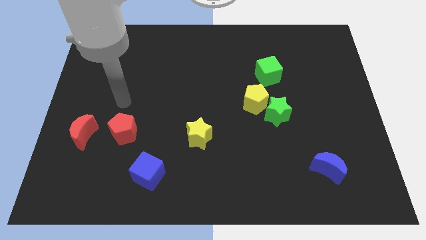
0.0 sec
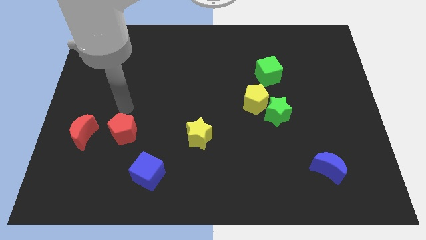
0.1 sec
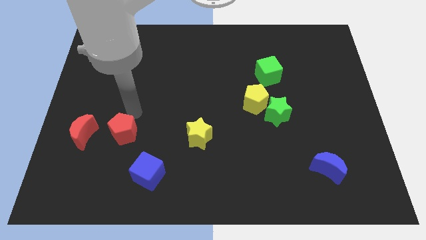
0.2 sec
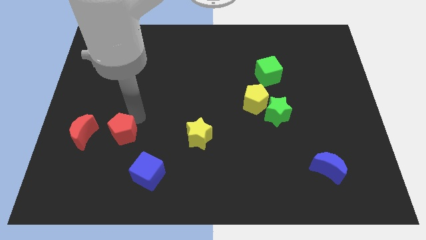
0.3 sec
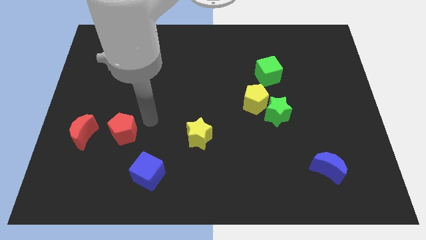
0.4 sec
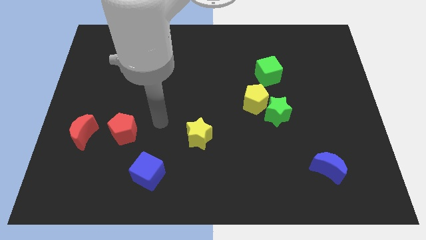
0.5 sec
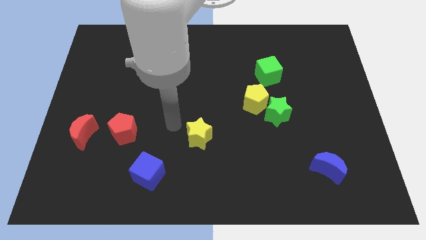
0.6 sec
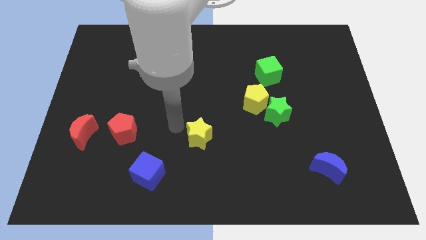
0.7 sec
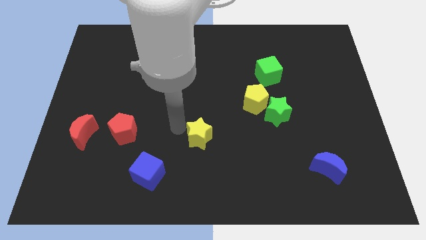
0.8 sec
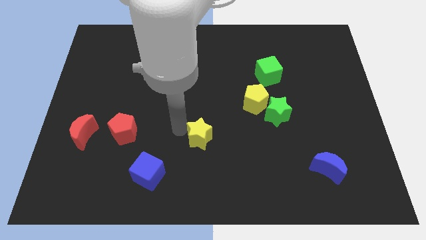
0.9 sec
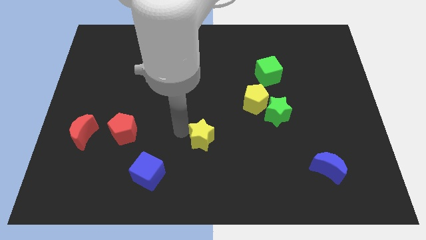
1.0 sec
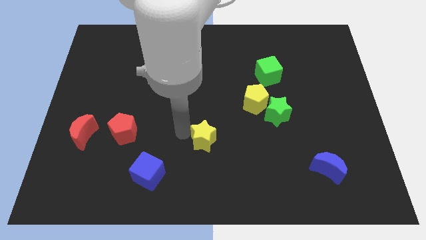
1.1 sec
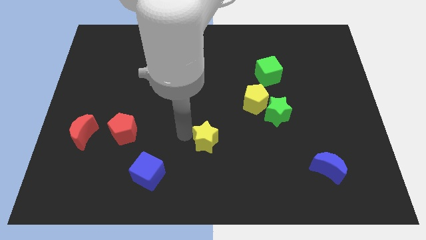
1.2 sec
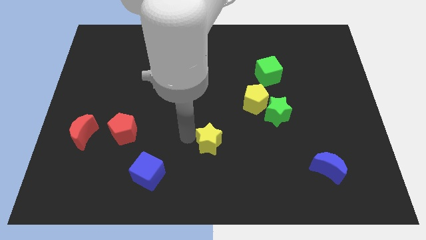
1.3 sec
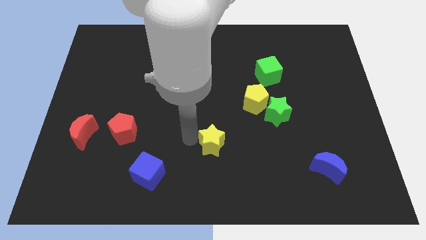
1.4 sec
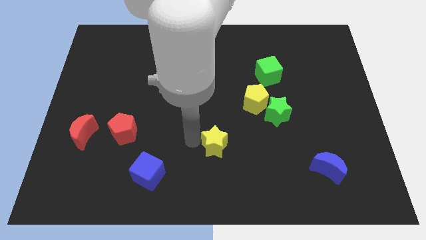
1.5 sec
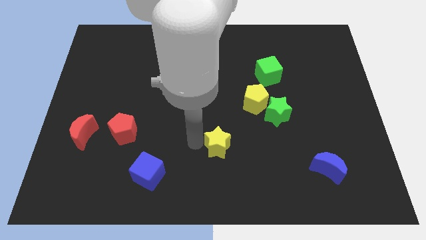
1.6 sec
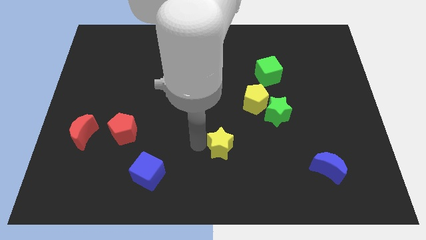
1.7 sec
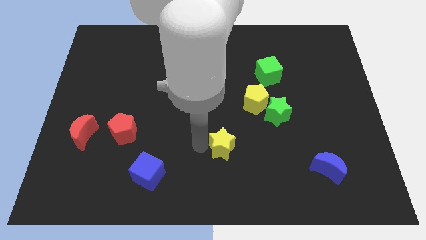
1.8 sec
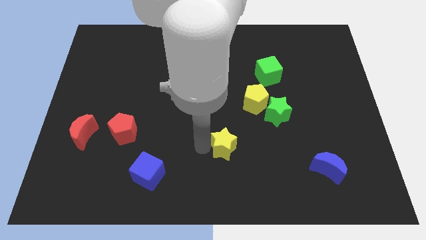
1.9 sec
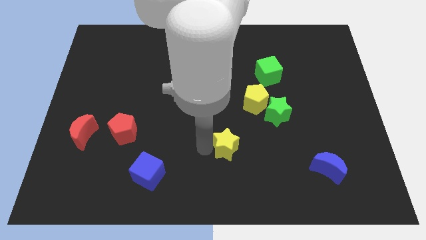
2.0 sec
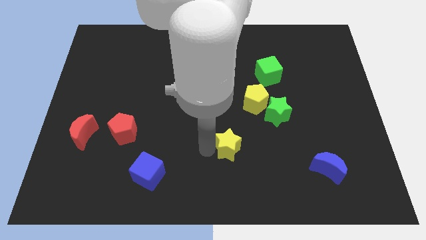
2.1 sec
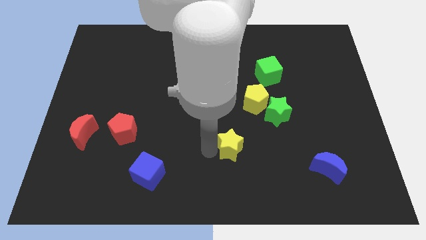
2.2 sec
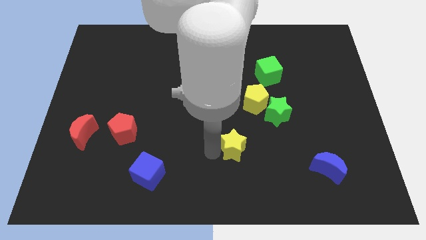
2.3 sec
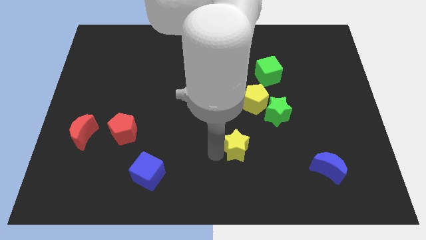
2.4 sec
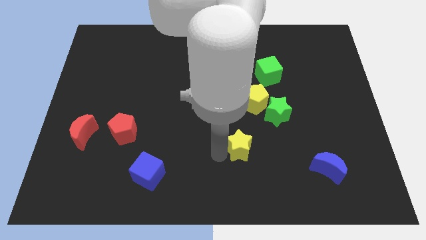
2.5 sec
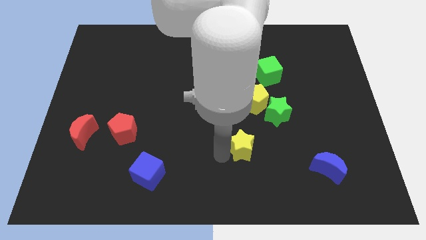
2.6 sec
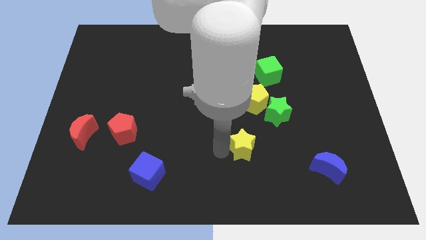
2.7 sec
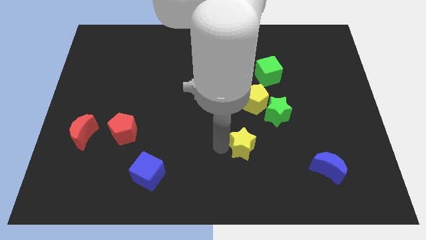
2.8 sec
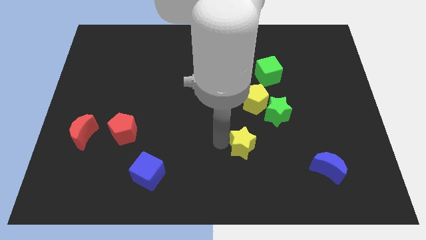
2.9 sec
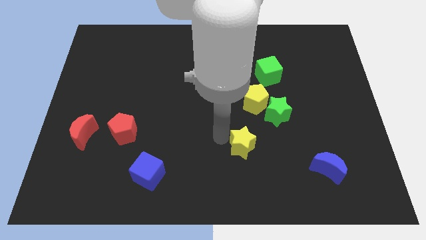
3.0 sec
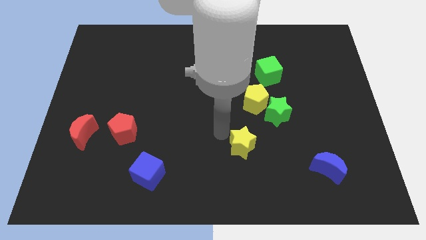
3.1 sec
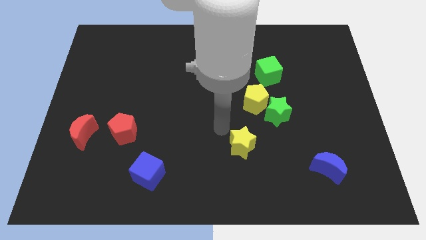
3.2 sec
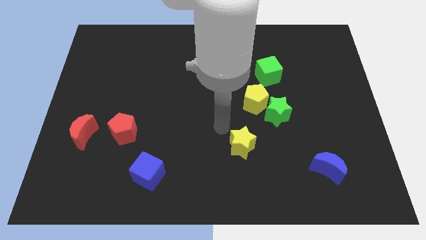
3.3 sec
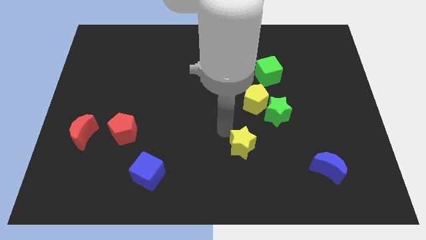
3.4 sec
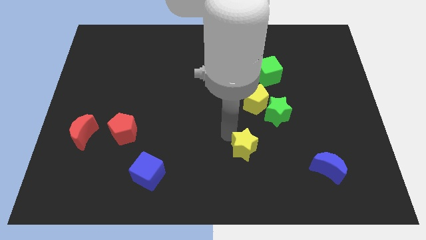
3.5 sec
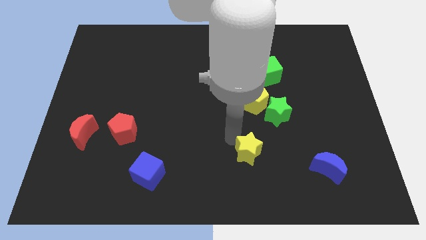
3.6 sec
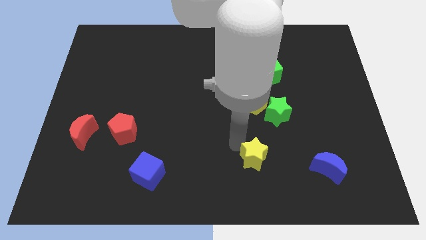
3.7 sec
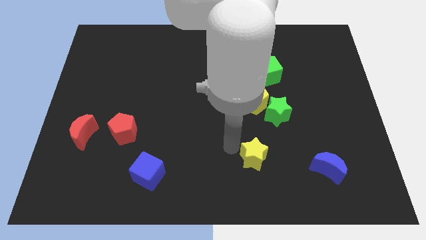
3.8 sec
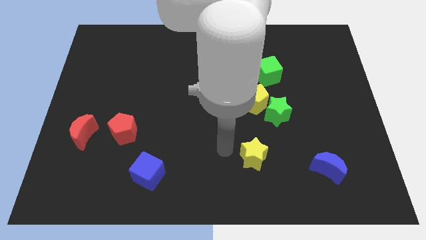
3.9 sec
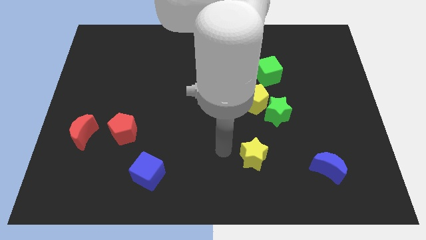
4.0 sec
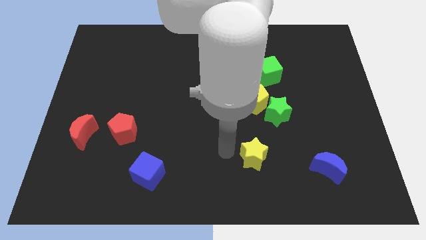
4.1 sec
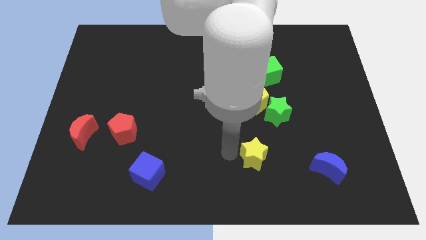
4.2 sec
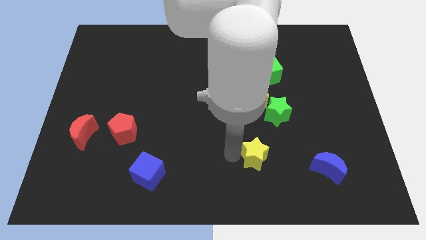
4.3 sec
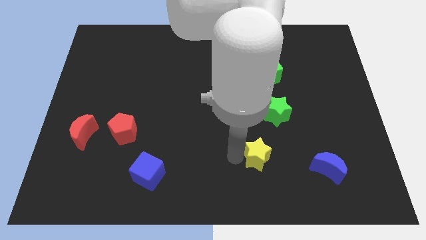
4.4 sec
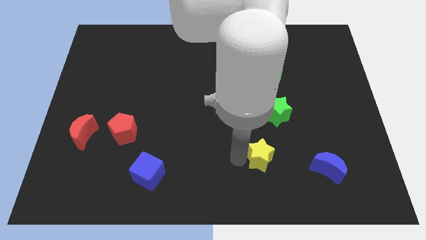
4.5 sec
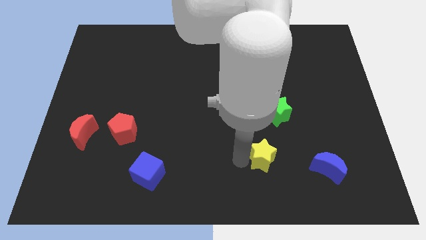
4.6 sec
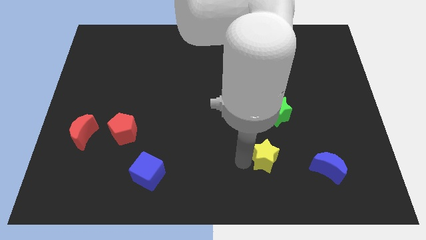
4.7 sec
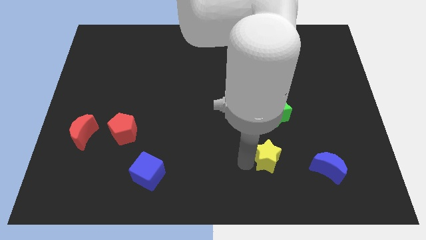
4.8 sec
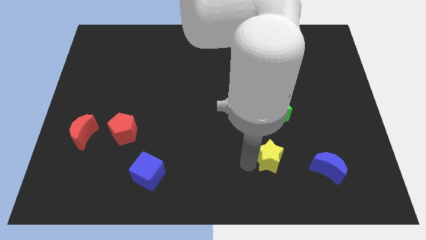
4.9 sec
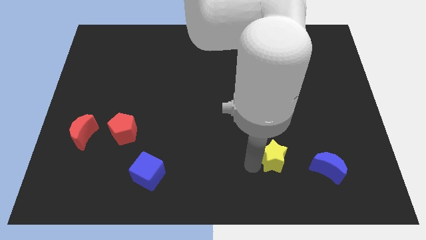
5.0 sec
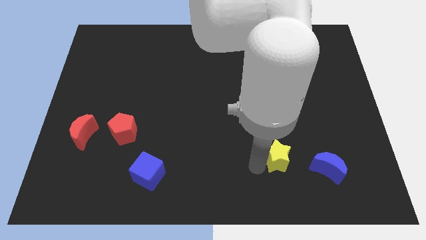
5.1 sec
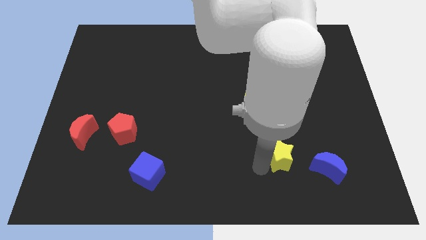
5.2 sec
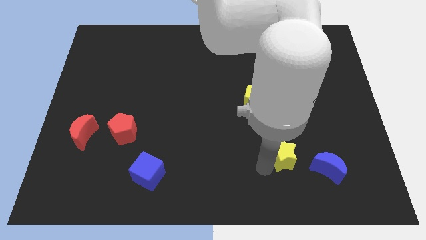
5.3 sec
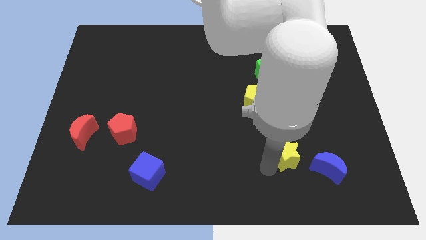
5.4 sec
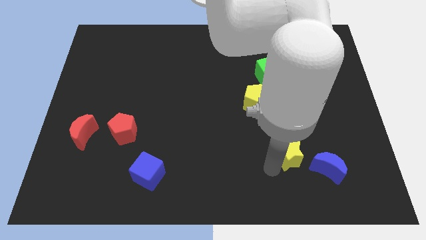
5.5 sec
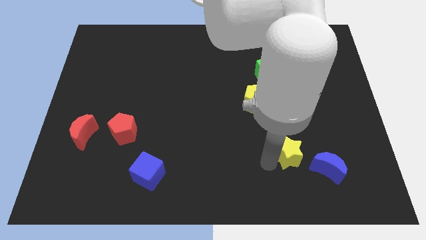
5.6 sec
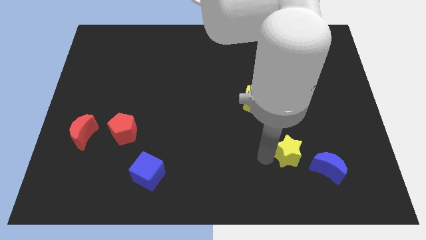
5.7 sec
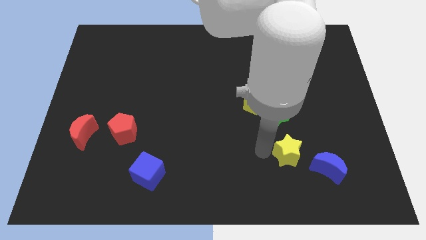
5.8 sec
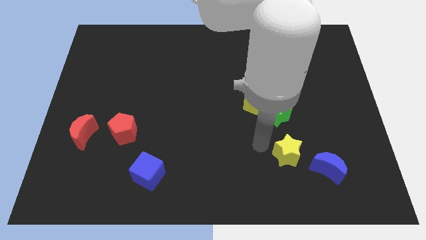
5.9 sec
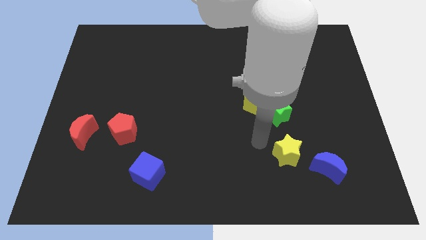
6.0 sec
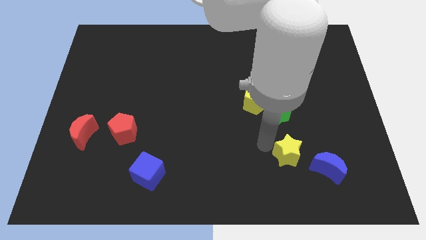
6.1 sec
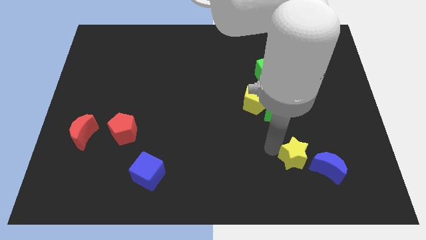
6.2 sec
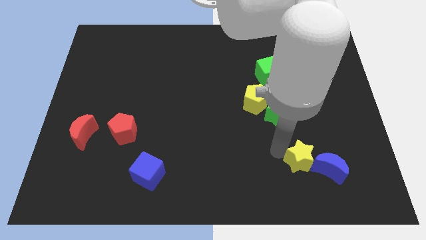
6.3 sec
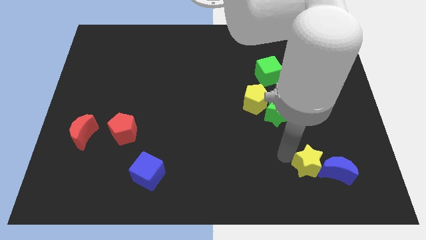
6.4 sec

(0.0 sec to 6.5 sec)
put the yellow star towards the blue moon

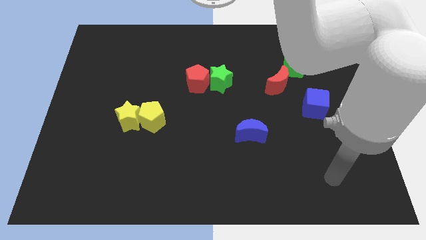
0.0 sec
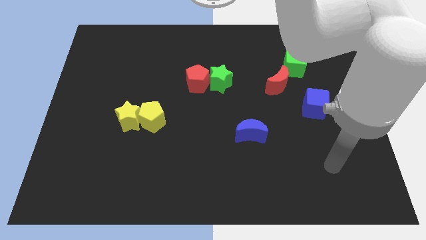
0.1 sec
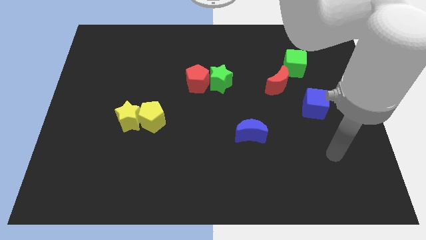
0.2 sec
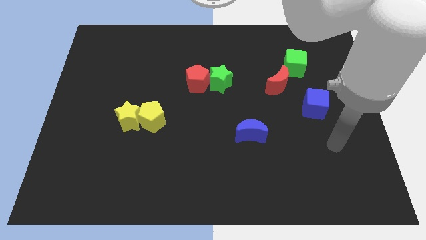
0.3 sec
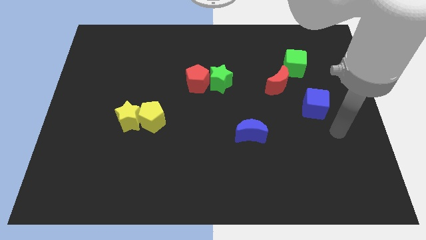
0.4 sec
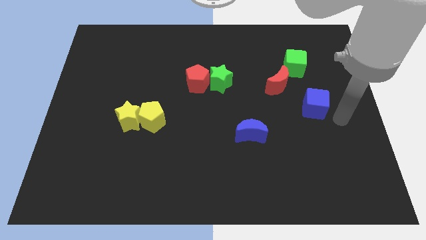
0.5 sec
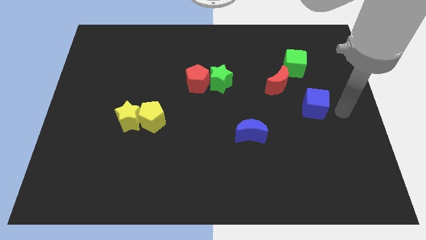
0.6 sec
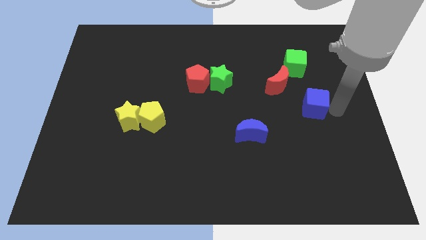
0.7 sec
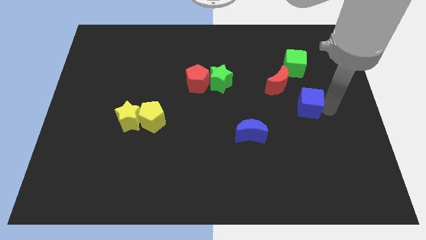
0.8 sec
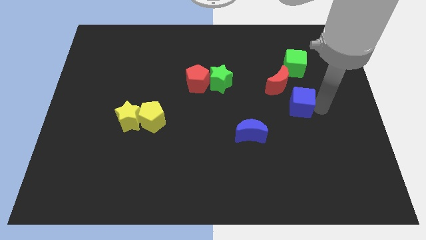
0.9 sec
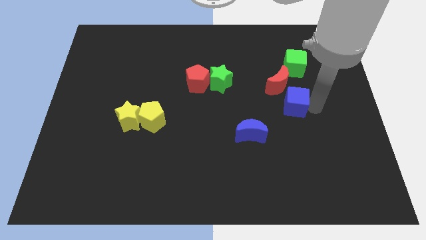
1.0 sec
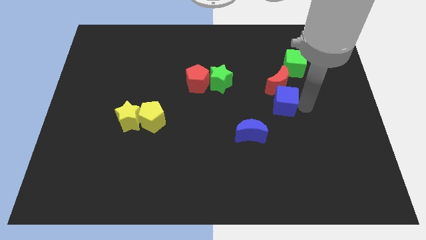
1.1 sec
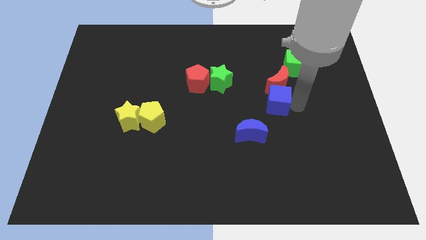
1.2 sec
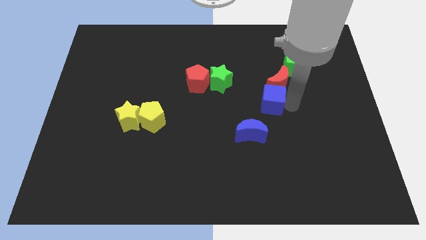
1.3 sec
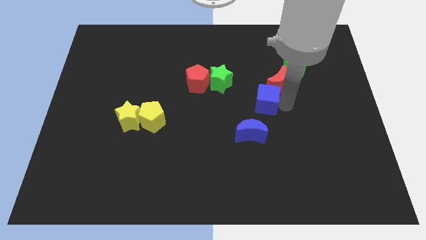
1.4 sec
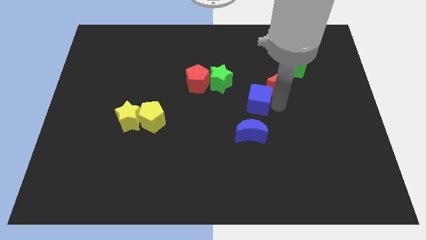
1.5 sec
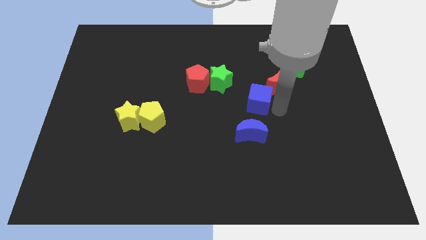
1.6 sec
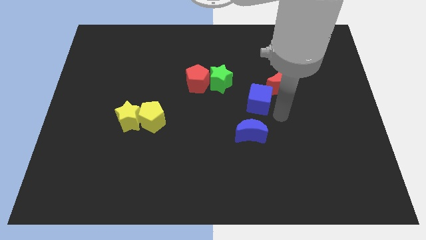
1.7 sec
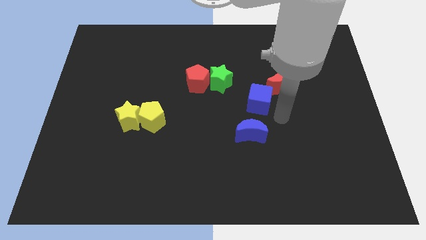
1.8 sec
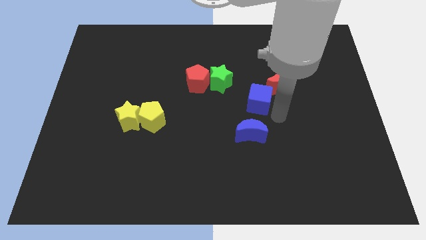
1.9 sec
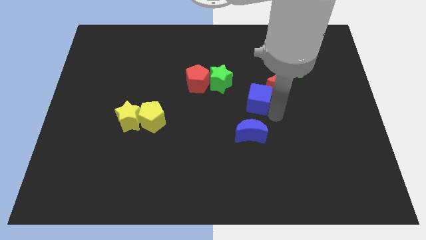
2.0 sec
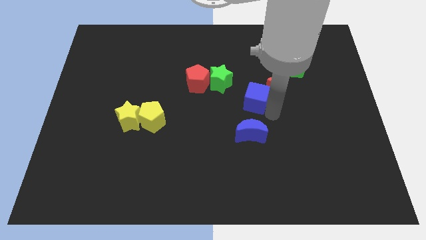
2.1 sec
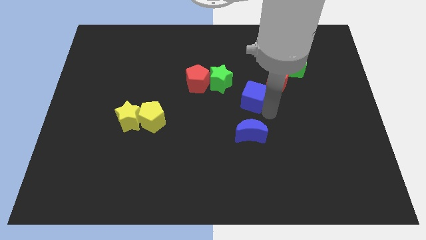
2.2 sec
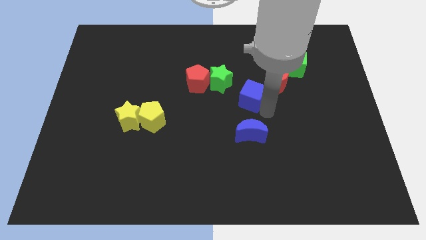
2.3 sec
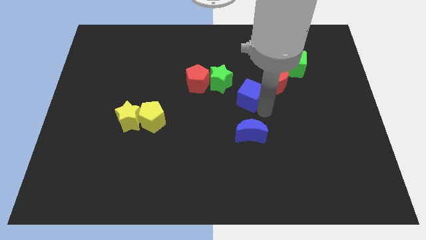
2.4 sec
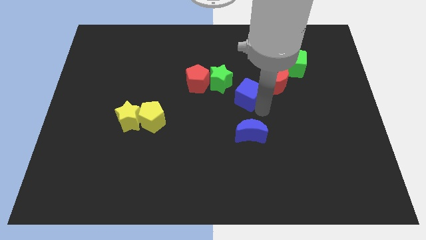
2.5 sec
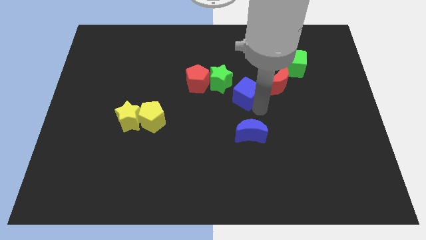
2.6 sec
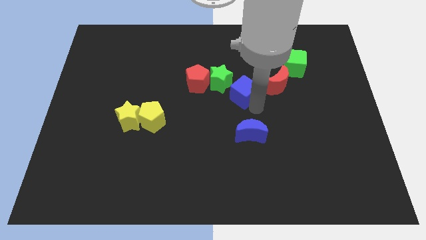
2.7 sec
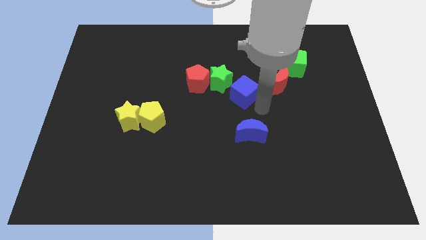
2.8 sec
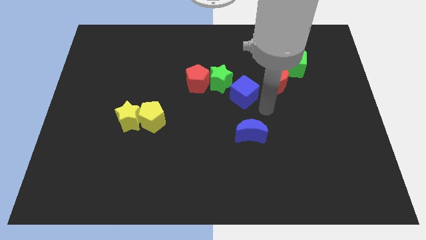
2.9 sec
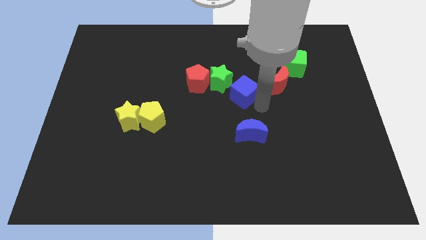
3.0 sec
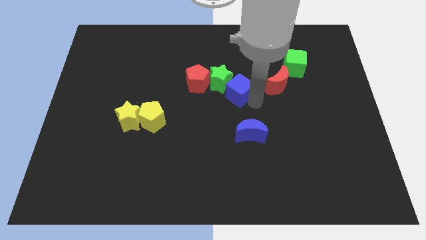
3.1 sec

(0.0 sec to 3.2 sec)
push the blue cube close to the green star
